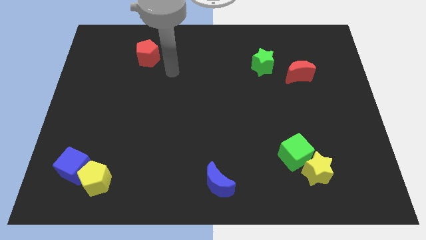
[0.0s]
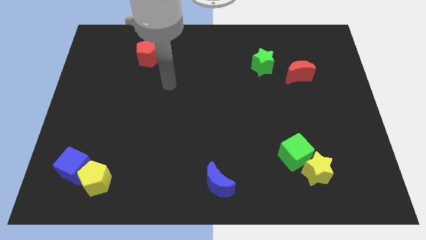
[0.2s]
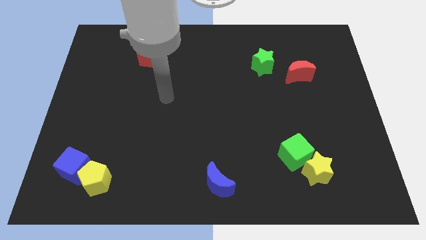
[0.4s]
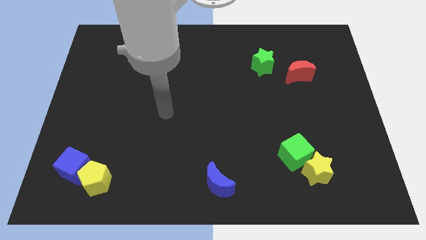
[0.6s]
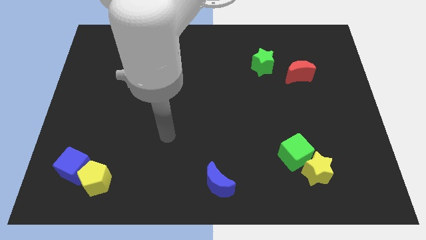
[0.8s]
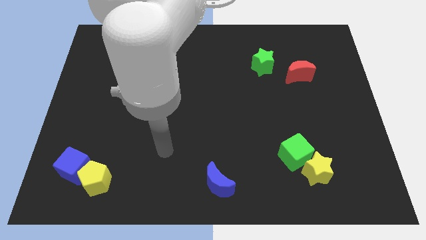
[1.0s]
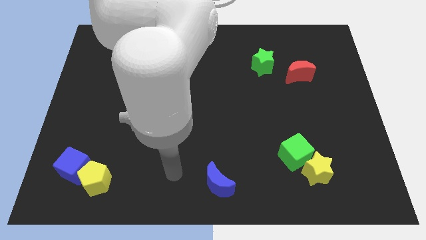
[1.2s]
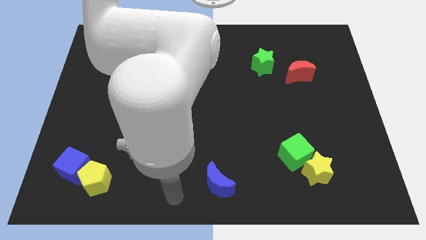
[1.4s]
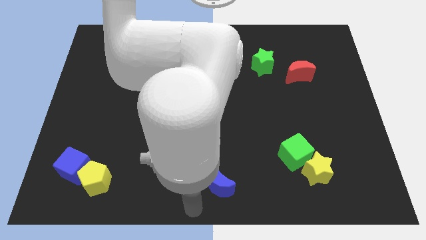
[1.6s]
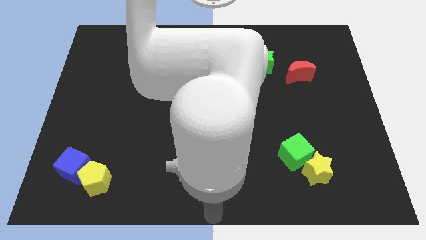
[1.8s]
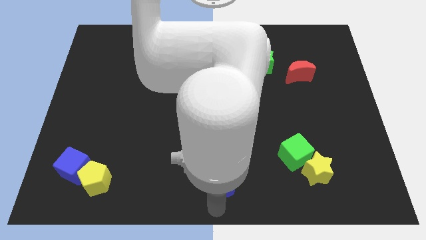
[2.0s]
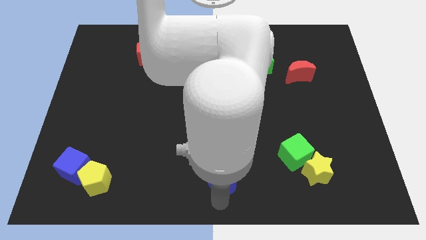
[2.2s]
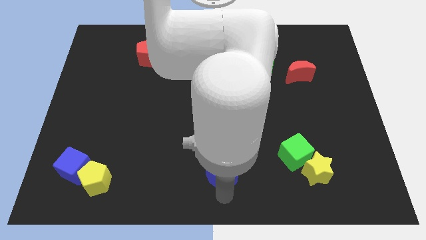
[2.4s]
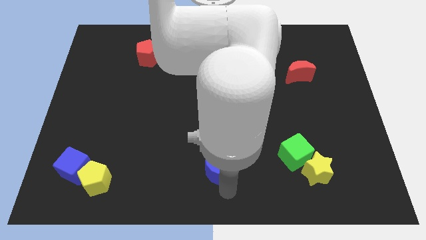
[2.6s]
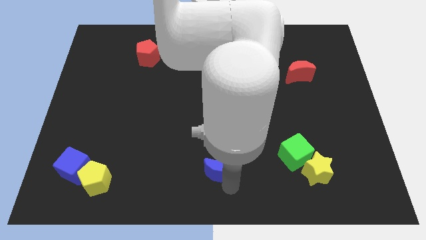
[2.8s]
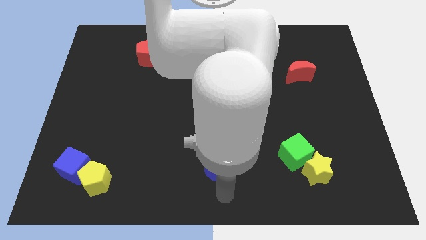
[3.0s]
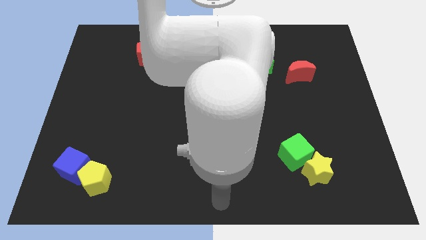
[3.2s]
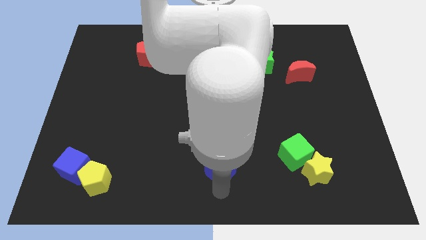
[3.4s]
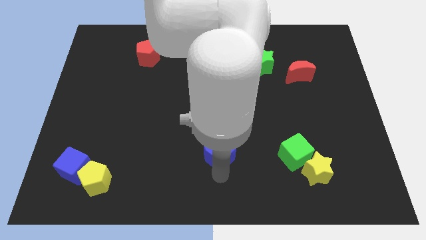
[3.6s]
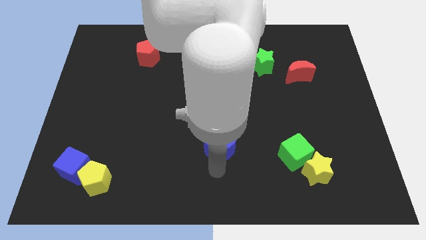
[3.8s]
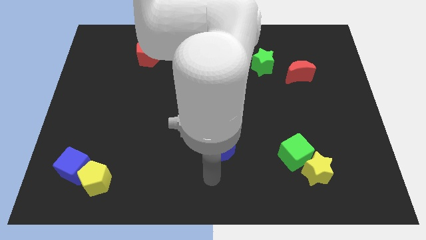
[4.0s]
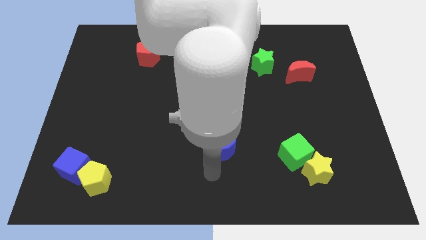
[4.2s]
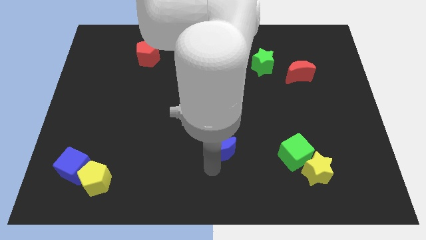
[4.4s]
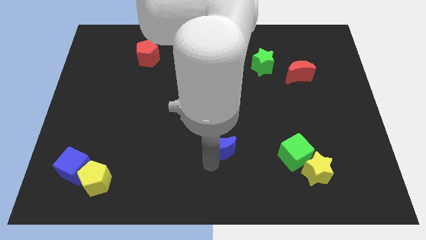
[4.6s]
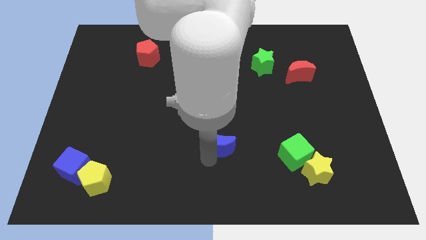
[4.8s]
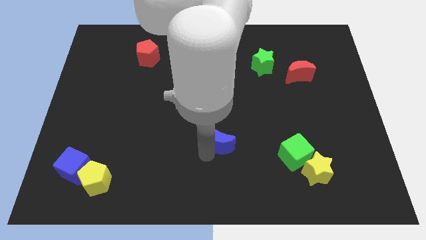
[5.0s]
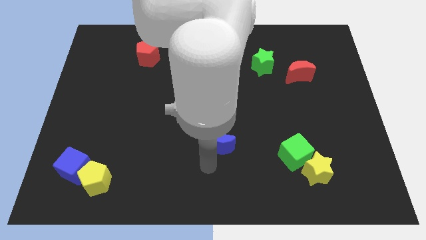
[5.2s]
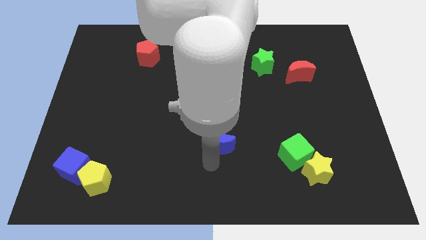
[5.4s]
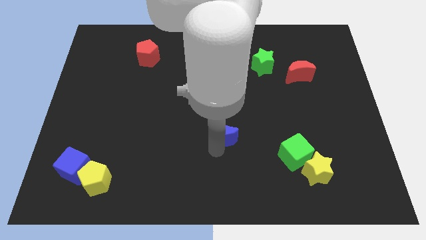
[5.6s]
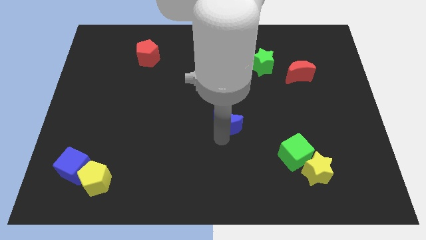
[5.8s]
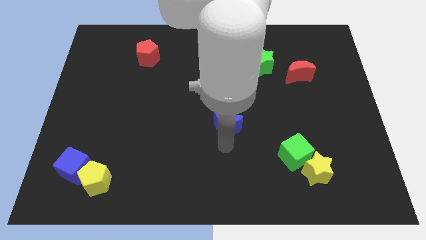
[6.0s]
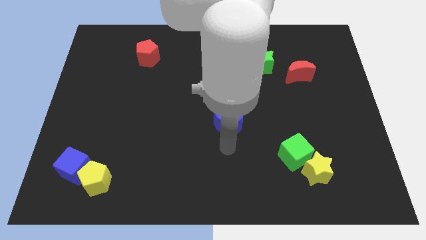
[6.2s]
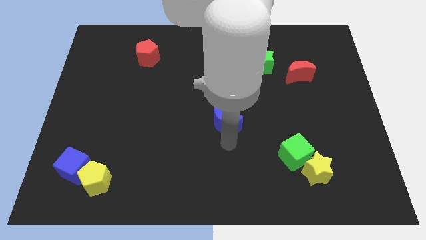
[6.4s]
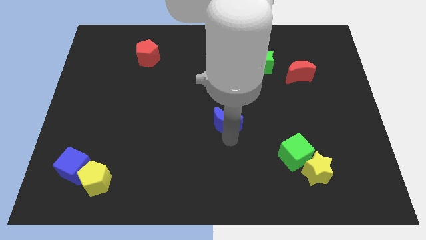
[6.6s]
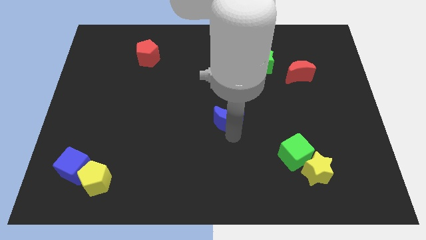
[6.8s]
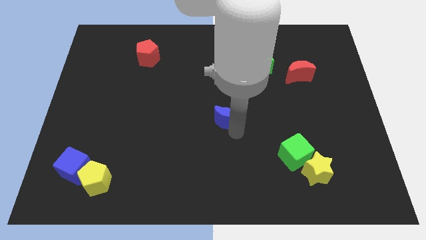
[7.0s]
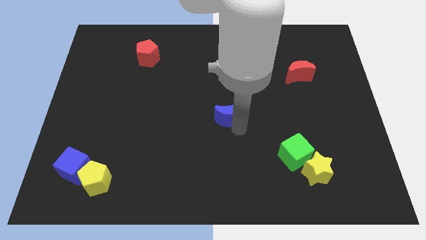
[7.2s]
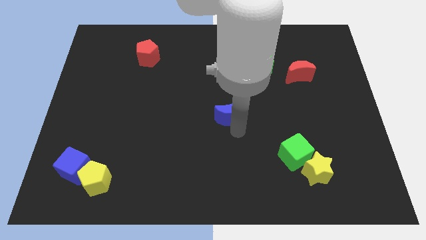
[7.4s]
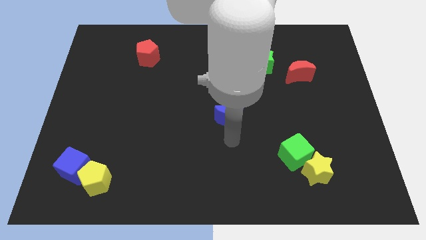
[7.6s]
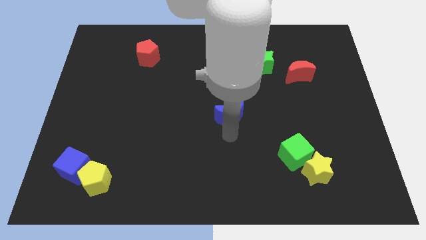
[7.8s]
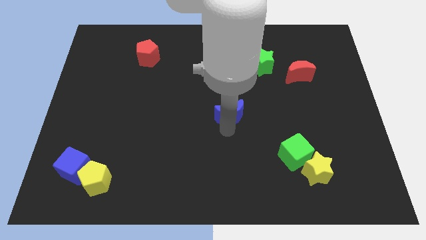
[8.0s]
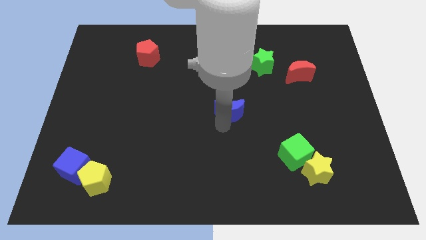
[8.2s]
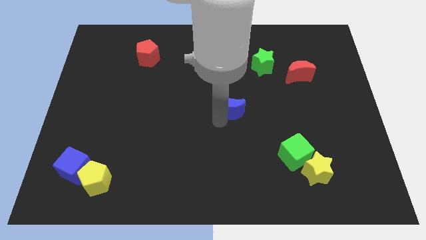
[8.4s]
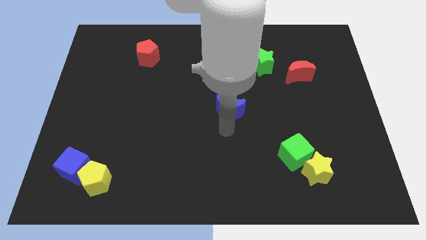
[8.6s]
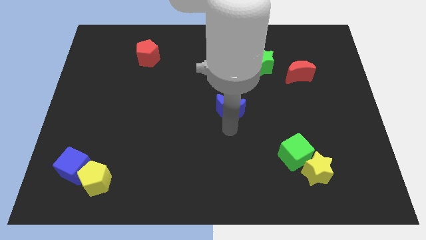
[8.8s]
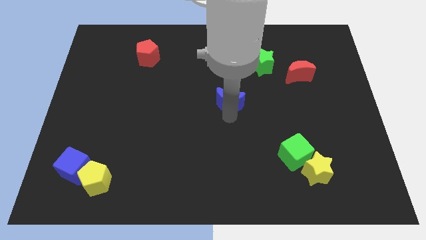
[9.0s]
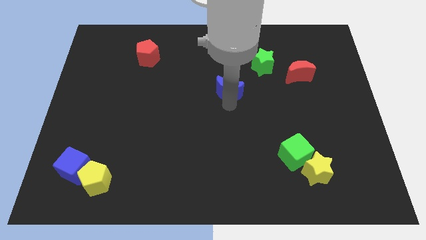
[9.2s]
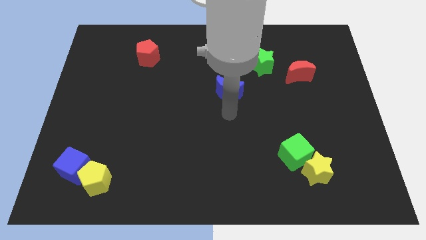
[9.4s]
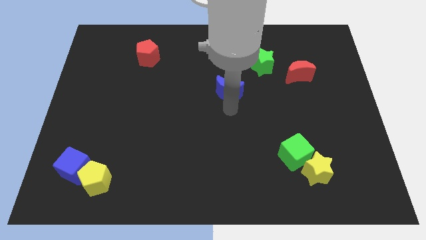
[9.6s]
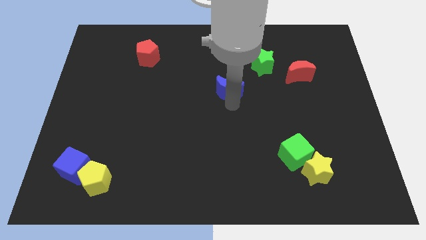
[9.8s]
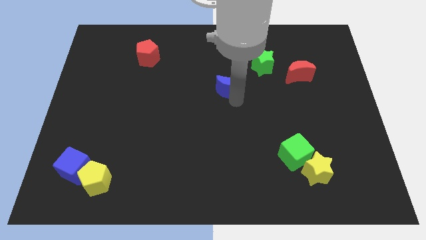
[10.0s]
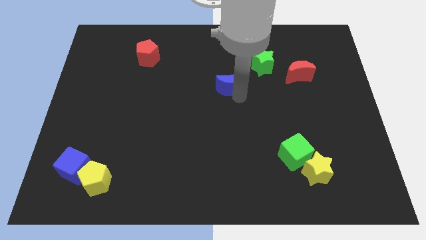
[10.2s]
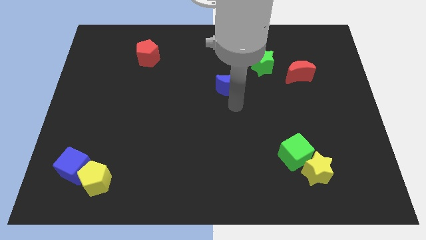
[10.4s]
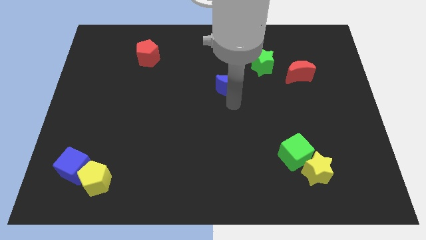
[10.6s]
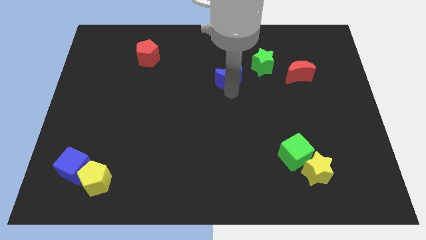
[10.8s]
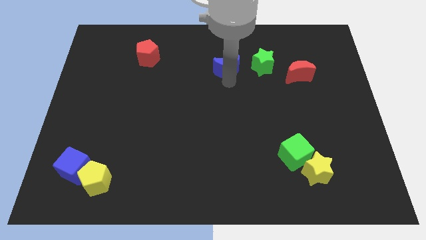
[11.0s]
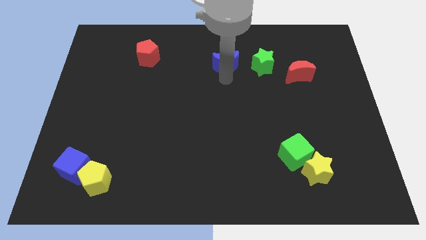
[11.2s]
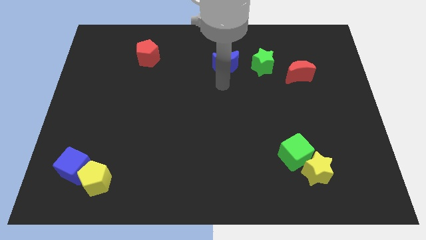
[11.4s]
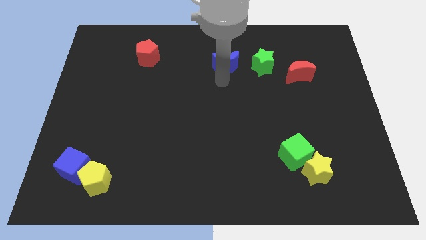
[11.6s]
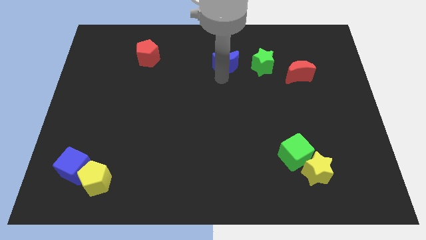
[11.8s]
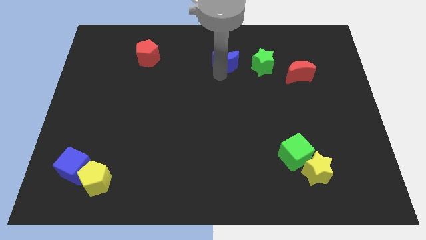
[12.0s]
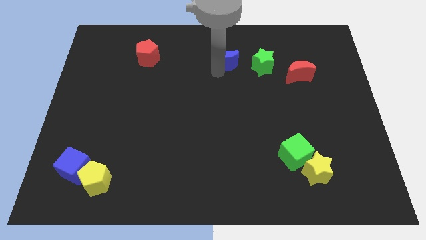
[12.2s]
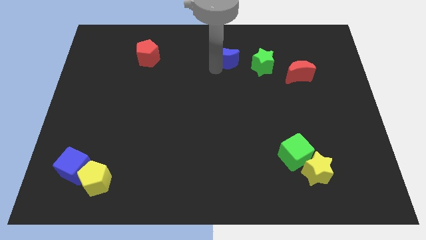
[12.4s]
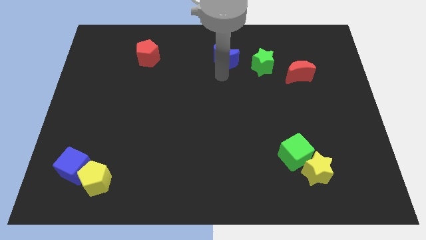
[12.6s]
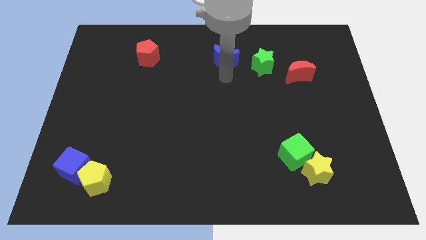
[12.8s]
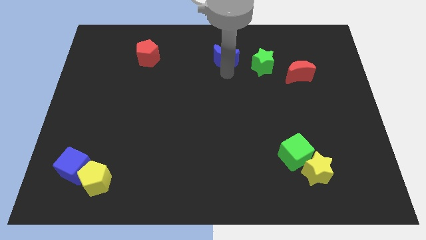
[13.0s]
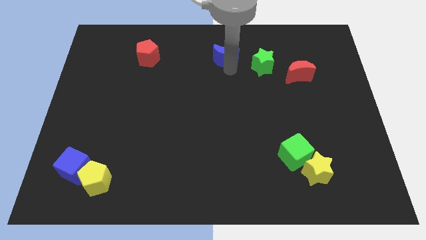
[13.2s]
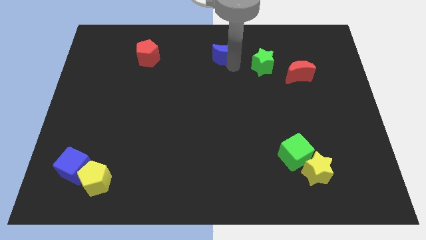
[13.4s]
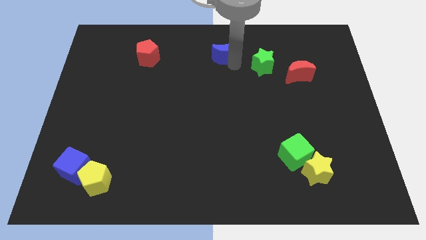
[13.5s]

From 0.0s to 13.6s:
slide the blue moon to the top side
